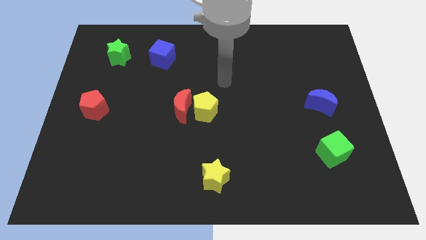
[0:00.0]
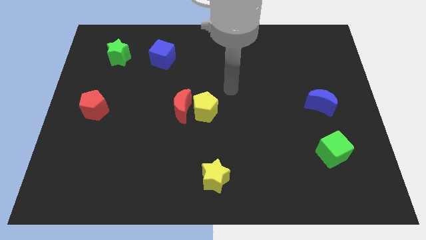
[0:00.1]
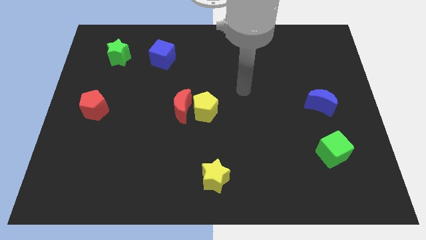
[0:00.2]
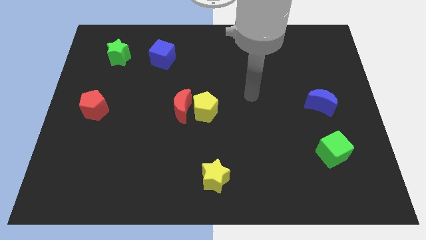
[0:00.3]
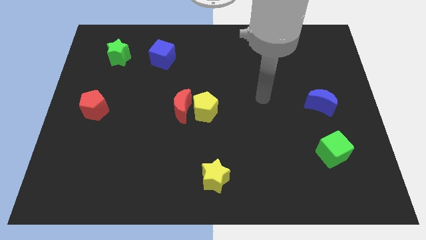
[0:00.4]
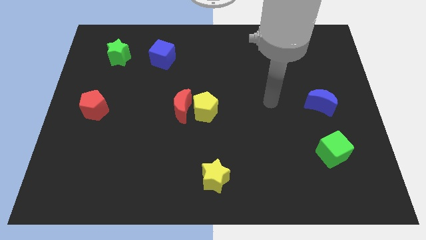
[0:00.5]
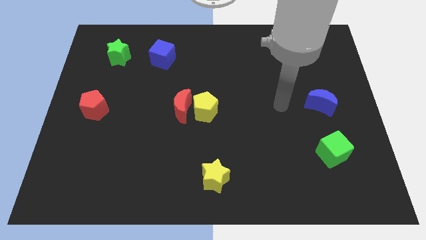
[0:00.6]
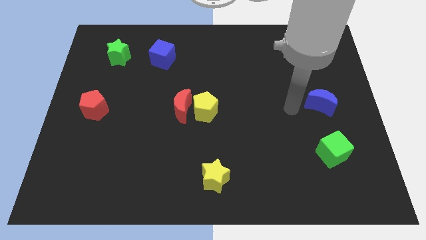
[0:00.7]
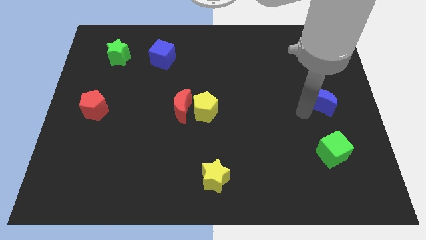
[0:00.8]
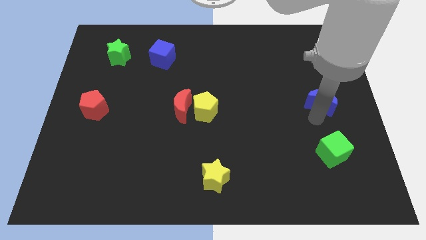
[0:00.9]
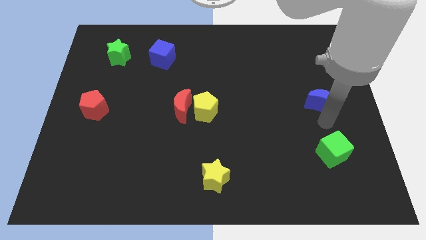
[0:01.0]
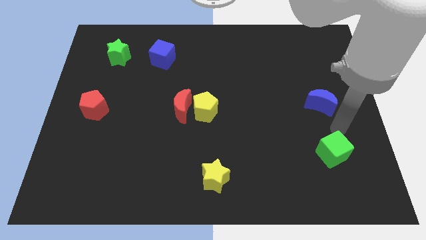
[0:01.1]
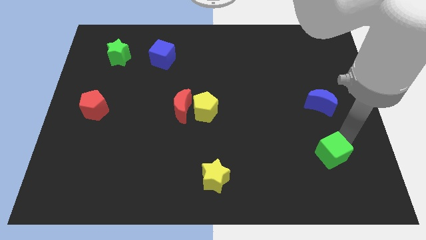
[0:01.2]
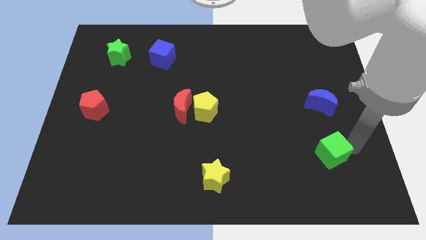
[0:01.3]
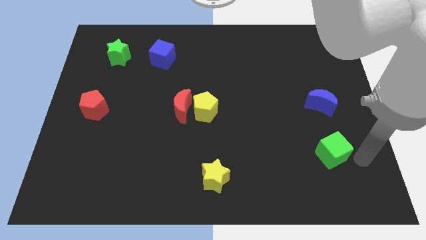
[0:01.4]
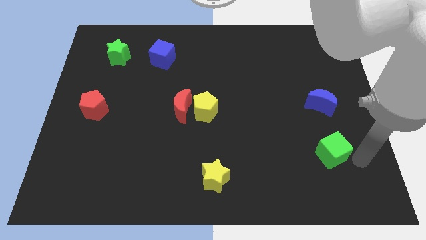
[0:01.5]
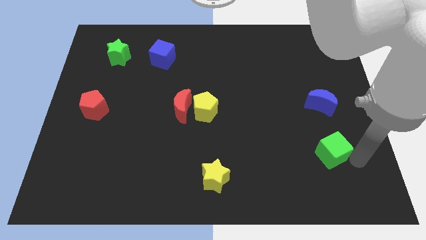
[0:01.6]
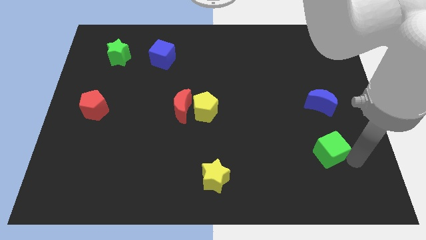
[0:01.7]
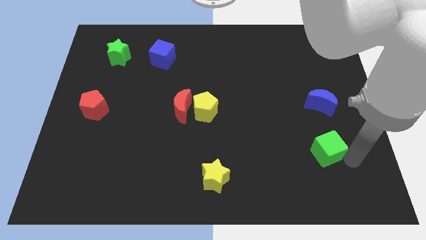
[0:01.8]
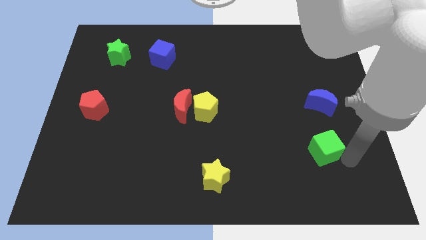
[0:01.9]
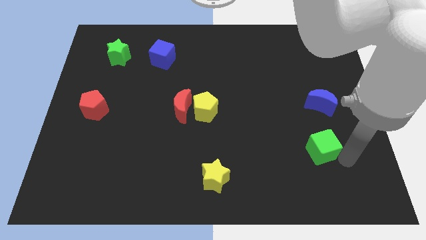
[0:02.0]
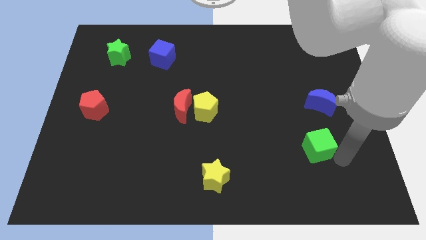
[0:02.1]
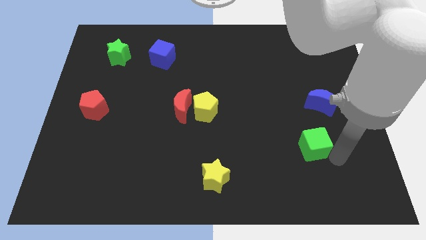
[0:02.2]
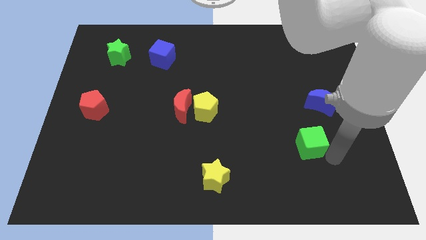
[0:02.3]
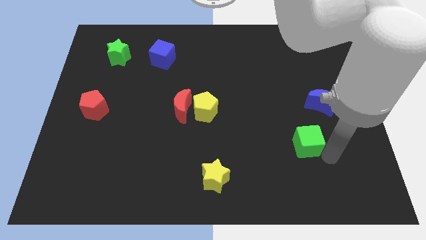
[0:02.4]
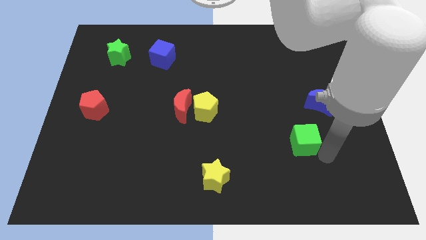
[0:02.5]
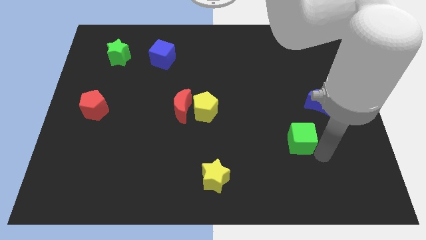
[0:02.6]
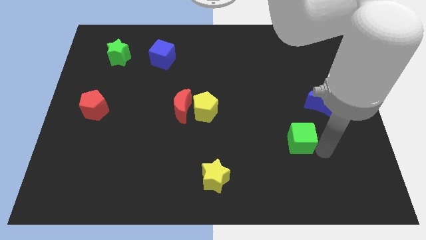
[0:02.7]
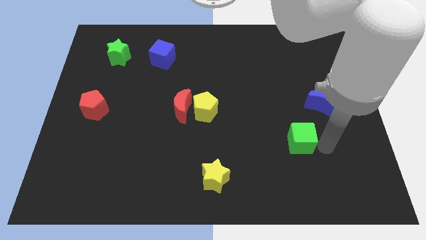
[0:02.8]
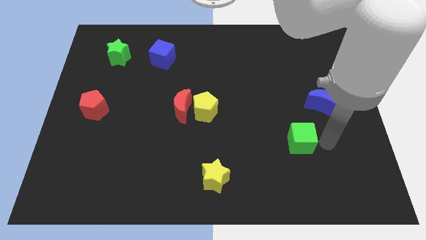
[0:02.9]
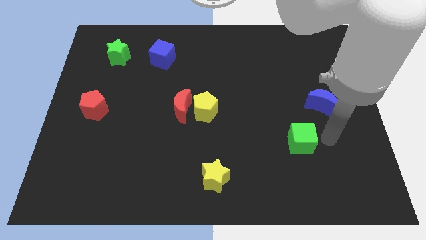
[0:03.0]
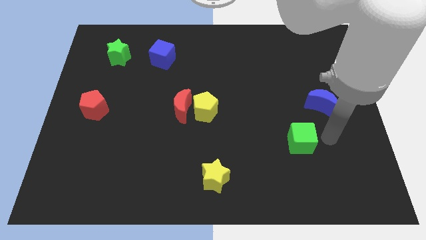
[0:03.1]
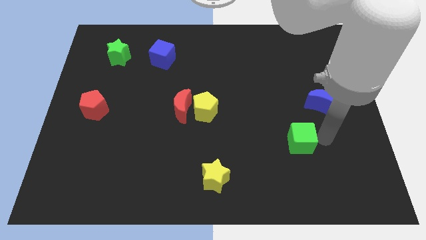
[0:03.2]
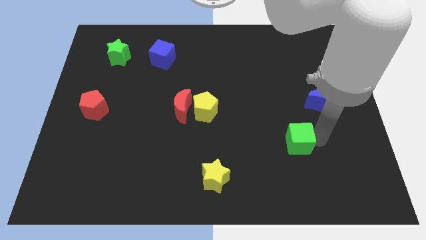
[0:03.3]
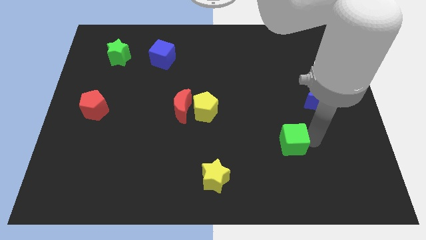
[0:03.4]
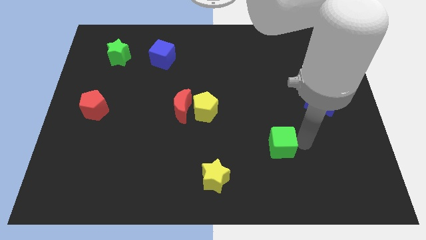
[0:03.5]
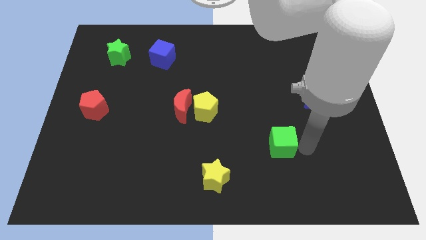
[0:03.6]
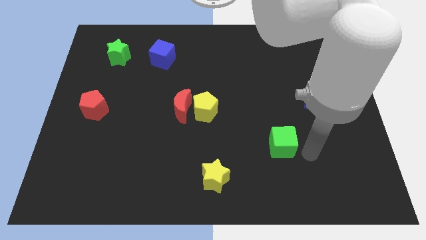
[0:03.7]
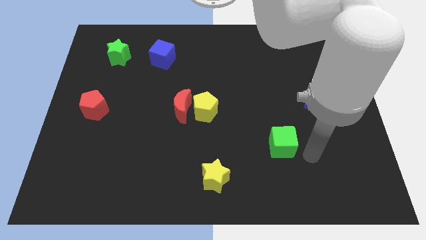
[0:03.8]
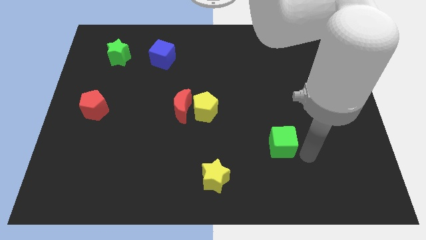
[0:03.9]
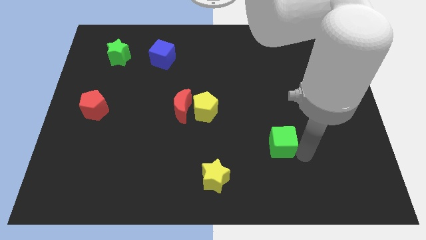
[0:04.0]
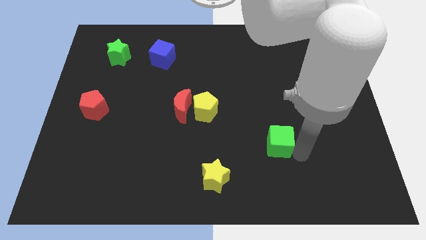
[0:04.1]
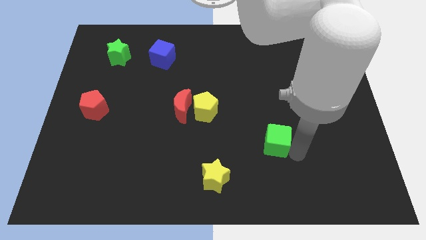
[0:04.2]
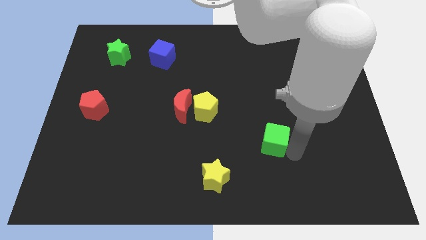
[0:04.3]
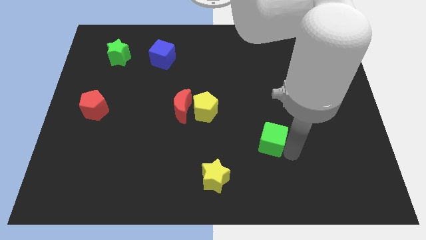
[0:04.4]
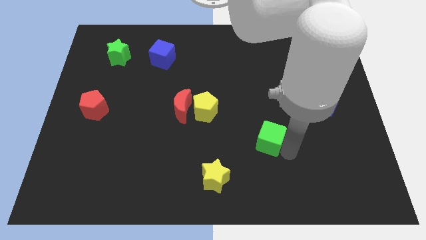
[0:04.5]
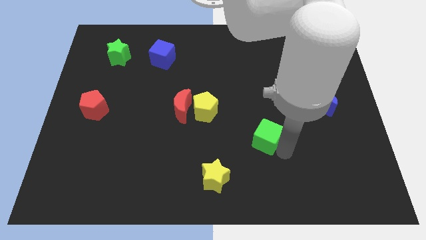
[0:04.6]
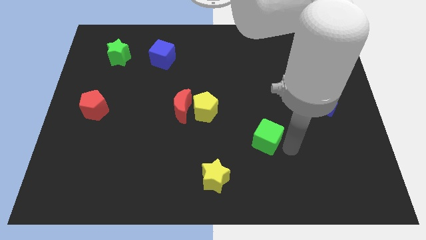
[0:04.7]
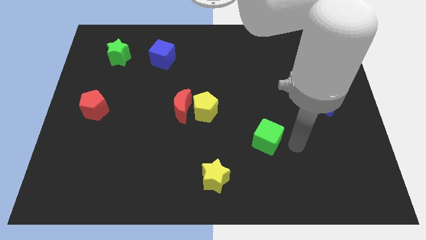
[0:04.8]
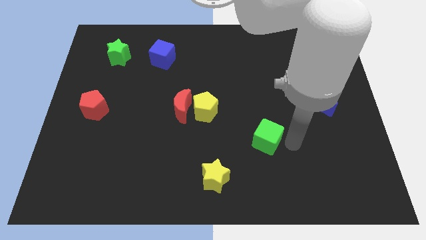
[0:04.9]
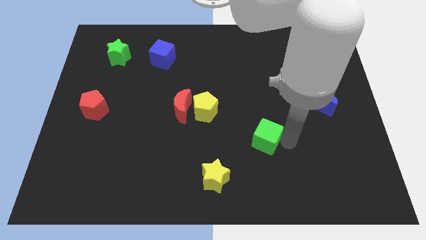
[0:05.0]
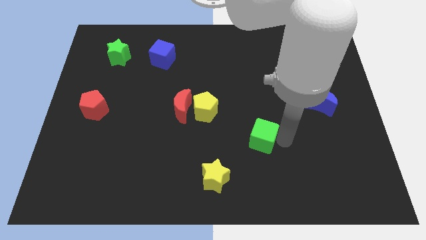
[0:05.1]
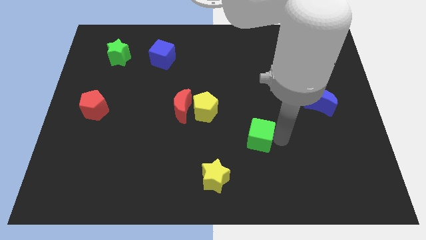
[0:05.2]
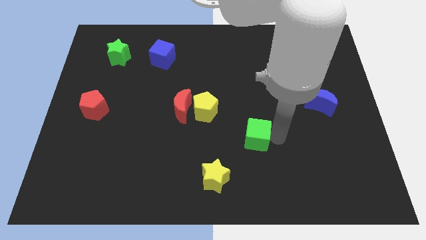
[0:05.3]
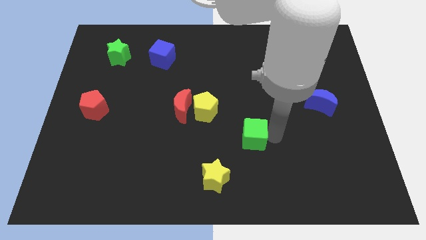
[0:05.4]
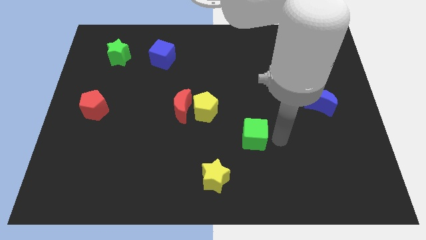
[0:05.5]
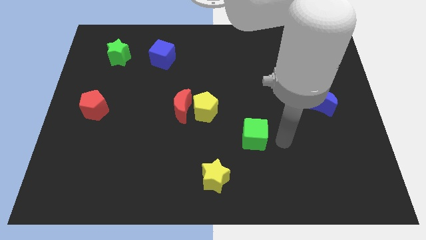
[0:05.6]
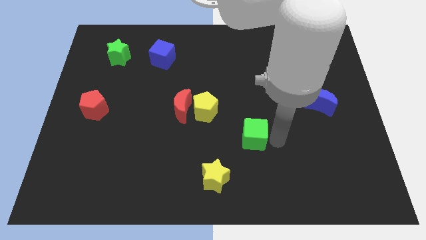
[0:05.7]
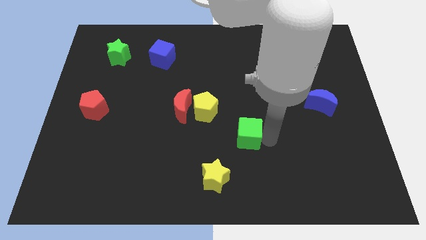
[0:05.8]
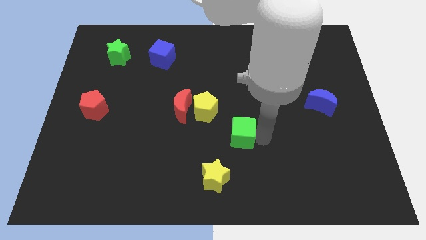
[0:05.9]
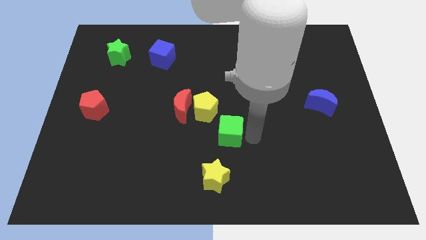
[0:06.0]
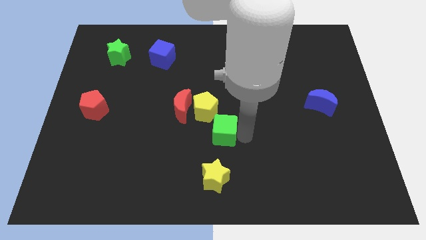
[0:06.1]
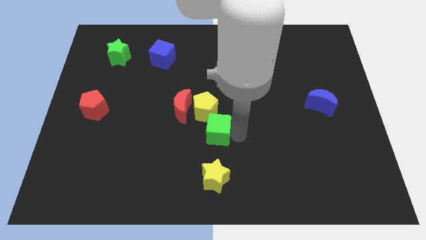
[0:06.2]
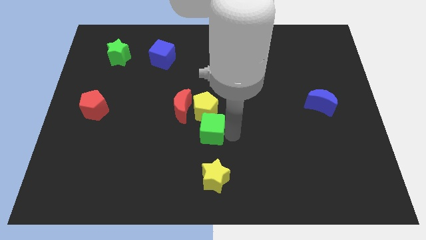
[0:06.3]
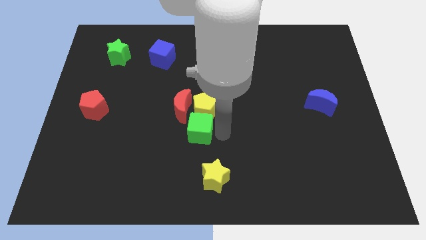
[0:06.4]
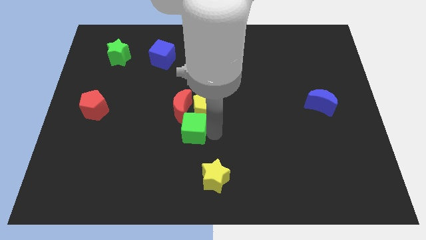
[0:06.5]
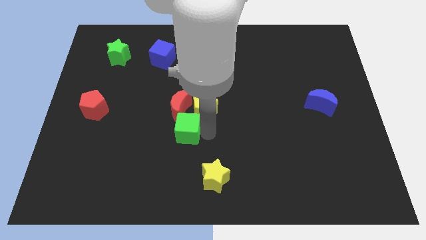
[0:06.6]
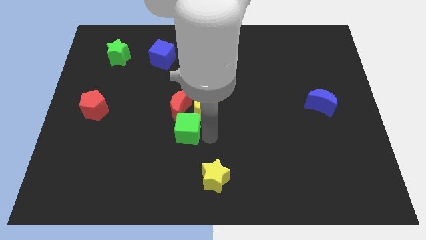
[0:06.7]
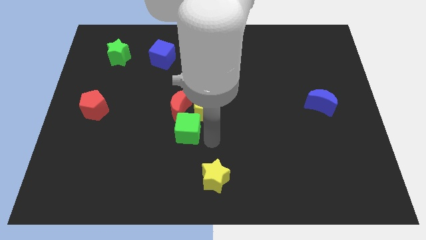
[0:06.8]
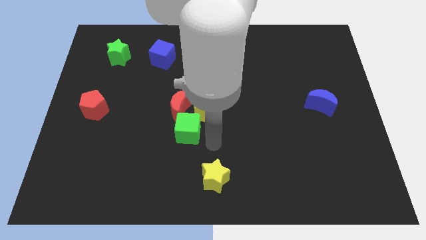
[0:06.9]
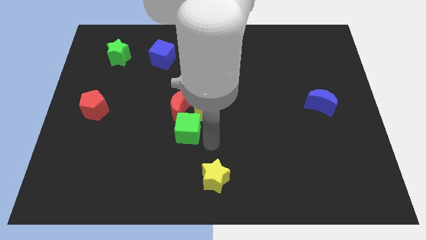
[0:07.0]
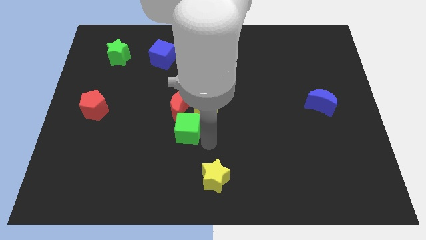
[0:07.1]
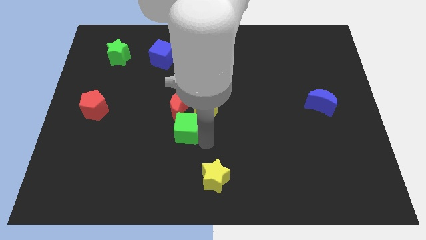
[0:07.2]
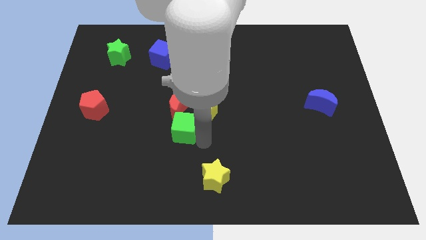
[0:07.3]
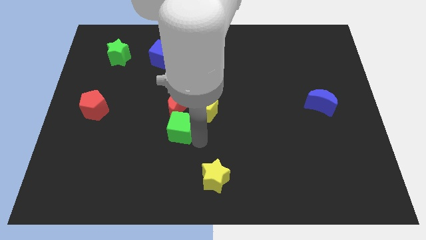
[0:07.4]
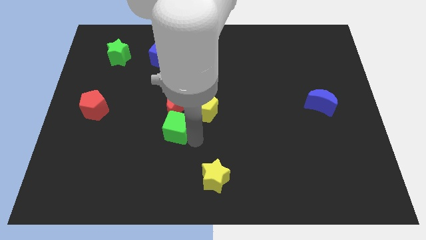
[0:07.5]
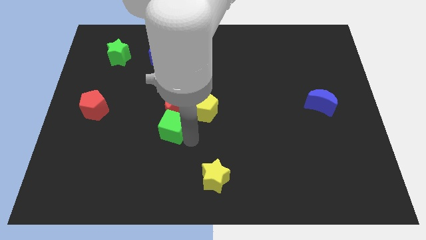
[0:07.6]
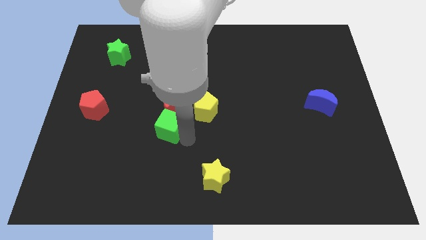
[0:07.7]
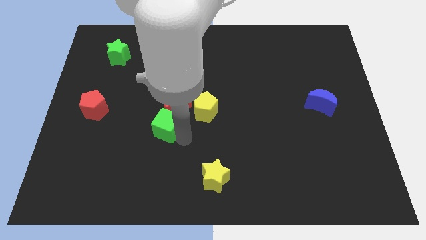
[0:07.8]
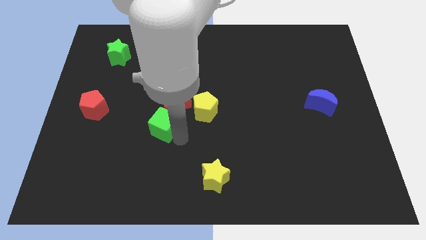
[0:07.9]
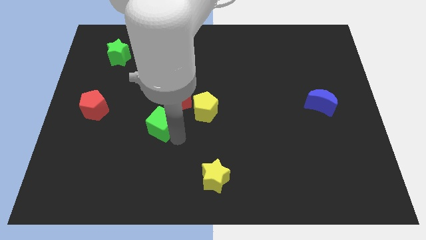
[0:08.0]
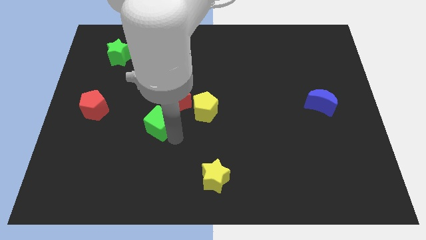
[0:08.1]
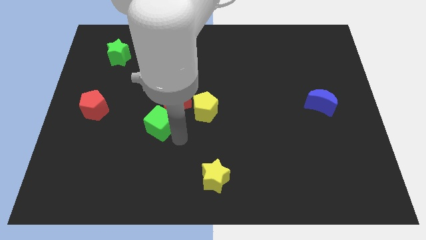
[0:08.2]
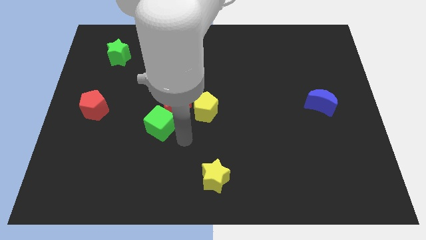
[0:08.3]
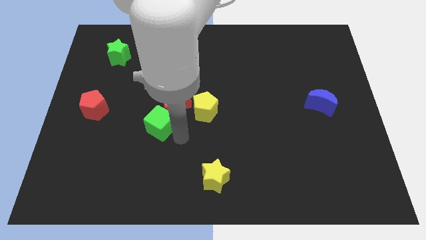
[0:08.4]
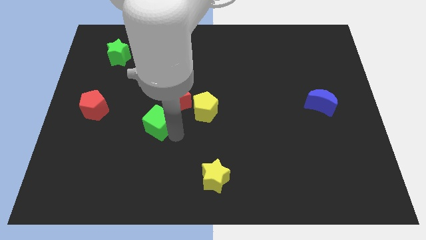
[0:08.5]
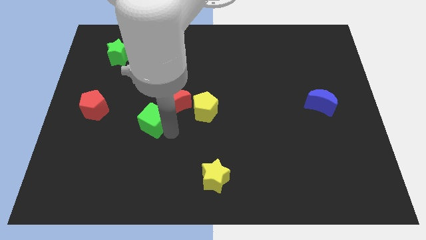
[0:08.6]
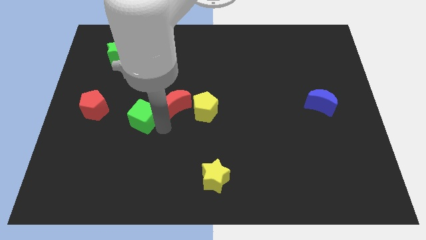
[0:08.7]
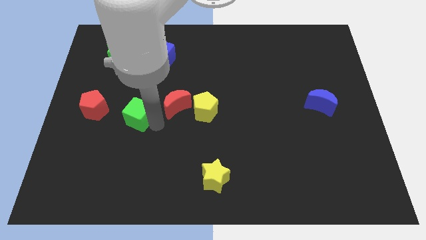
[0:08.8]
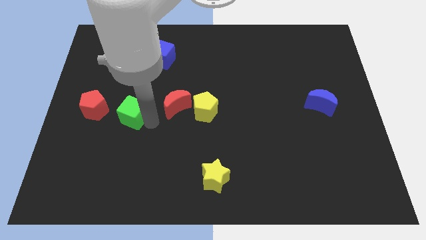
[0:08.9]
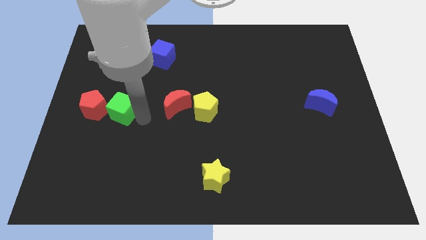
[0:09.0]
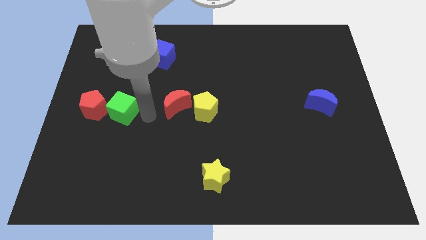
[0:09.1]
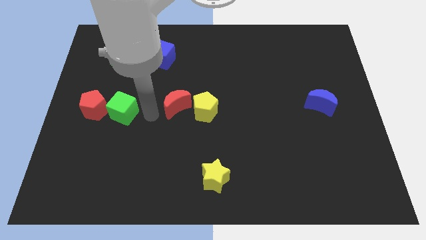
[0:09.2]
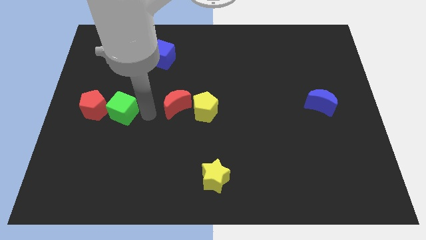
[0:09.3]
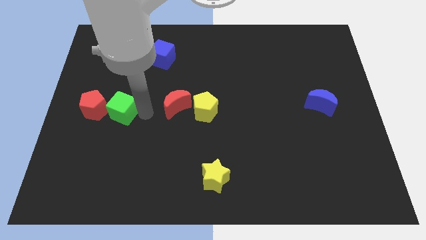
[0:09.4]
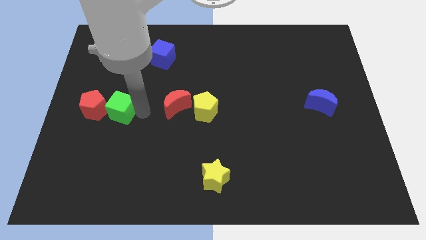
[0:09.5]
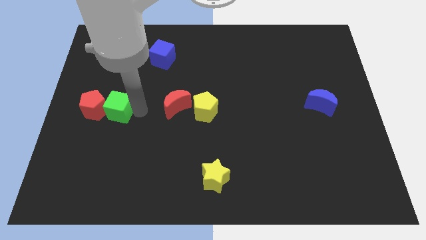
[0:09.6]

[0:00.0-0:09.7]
move the green cube next to the red pentagon
